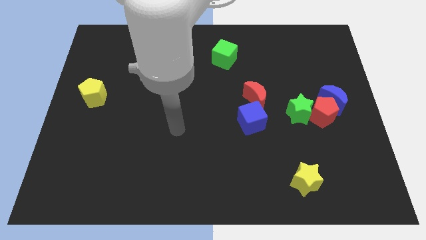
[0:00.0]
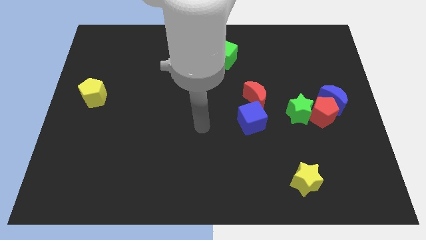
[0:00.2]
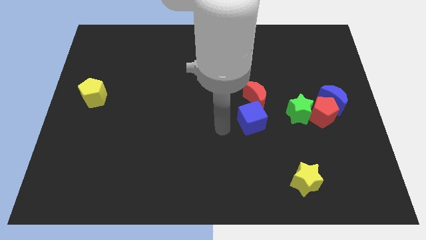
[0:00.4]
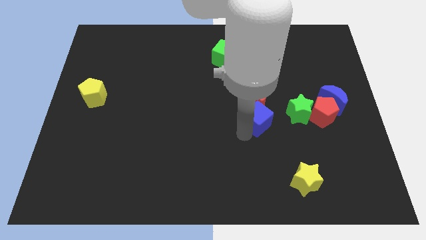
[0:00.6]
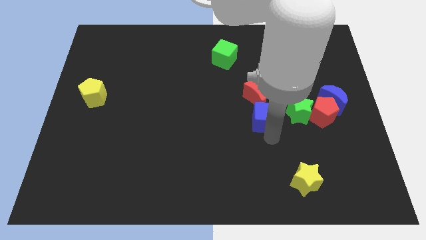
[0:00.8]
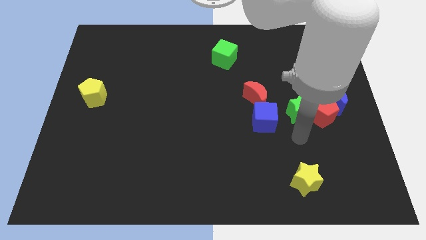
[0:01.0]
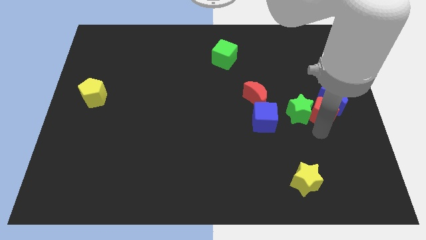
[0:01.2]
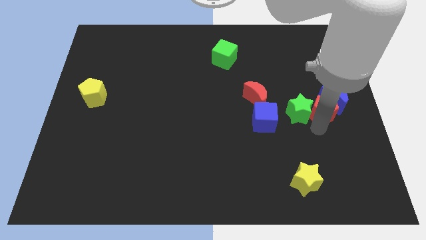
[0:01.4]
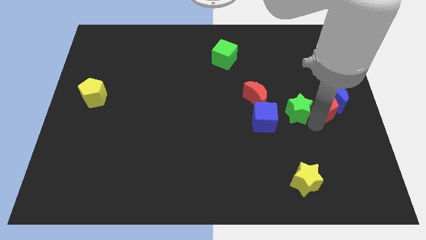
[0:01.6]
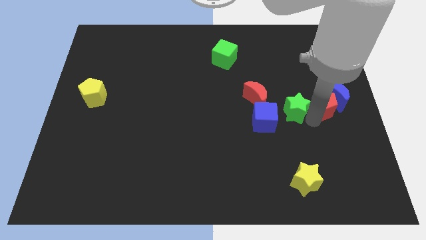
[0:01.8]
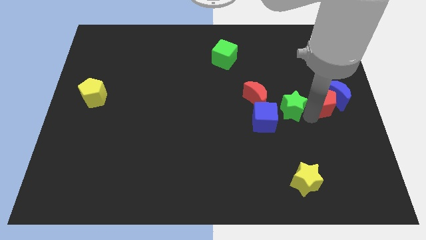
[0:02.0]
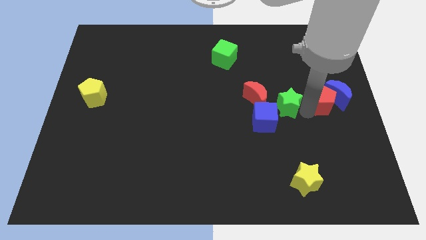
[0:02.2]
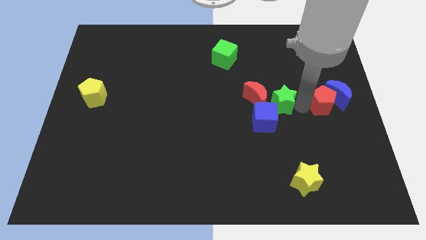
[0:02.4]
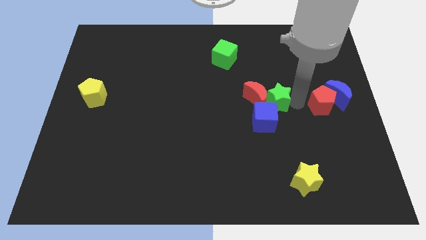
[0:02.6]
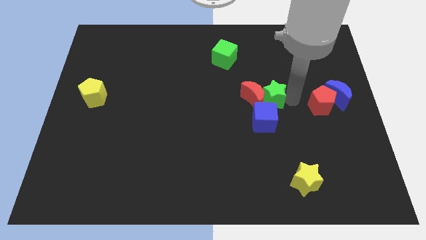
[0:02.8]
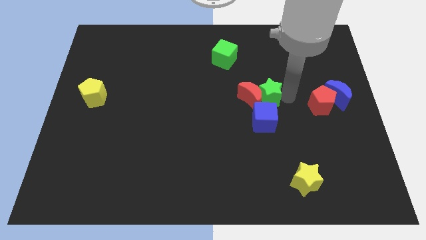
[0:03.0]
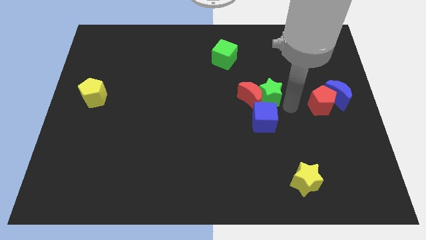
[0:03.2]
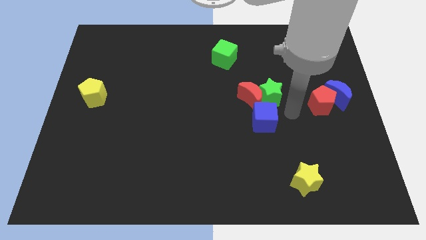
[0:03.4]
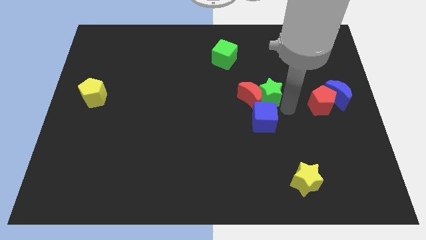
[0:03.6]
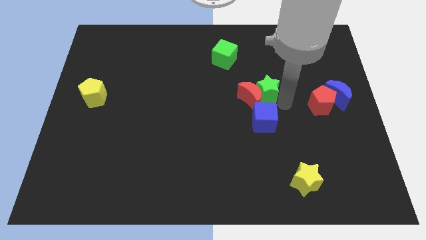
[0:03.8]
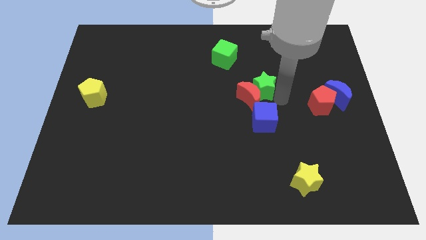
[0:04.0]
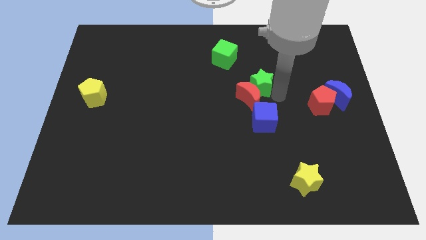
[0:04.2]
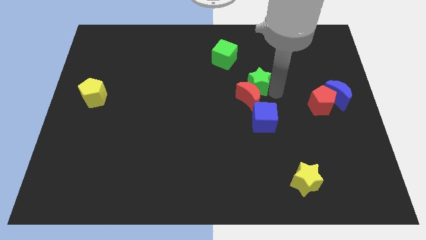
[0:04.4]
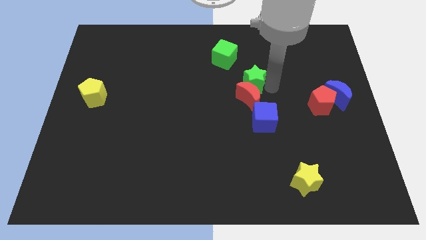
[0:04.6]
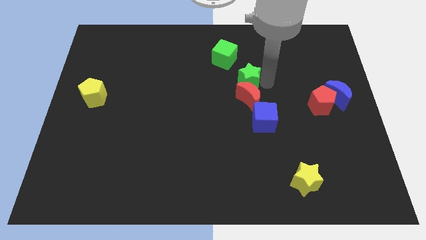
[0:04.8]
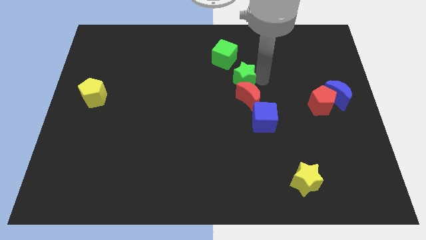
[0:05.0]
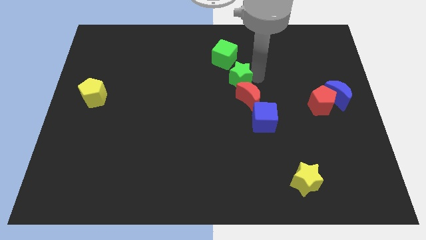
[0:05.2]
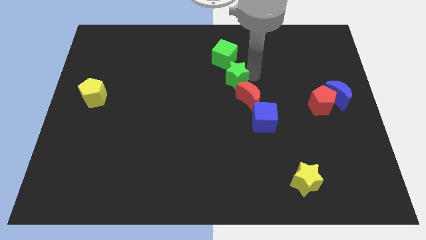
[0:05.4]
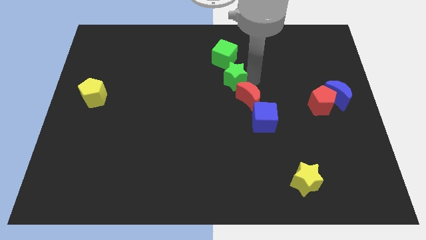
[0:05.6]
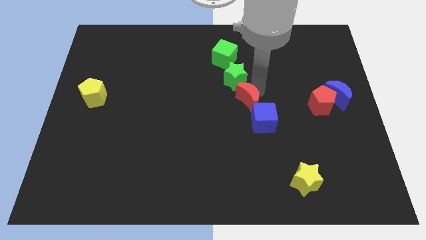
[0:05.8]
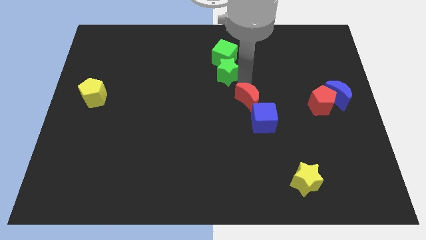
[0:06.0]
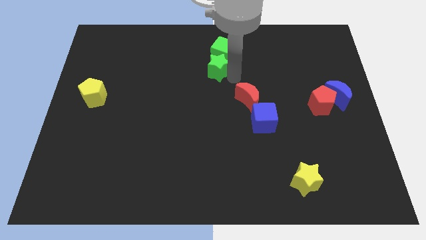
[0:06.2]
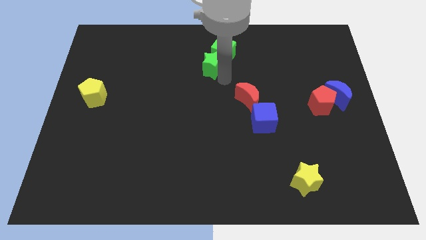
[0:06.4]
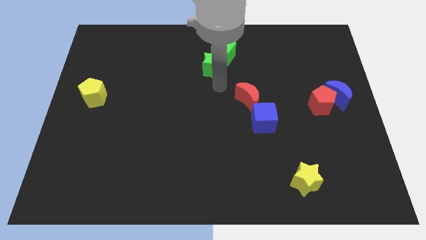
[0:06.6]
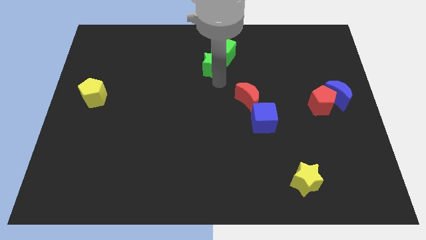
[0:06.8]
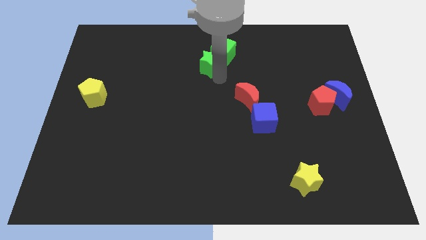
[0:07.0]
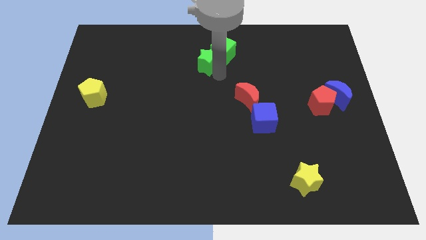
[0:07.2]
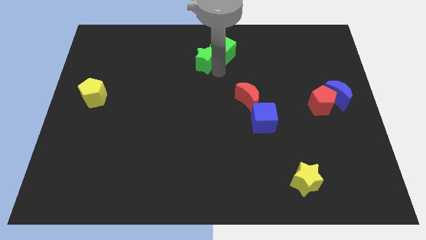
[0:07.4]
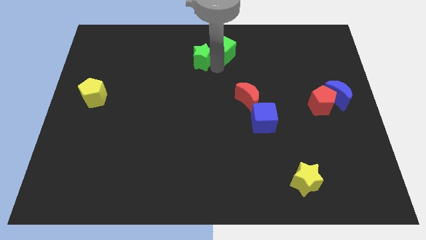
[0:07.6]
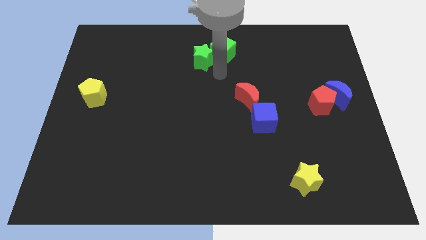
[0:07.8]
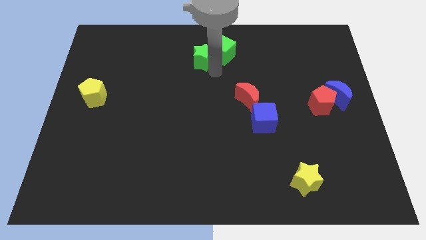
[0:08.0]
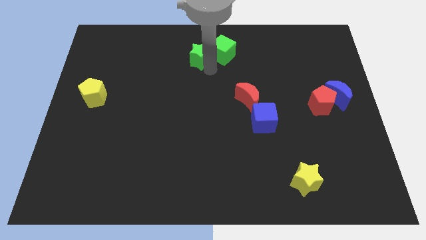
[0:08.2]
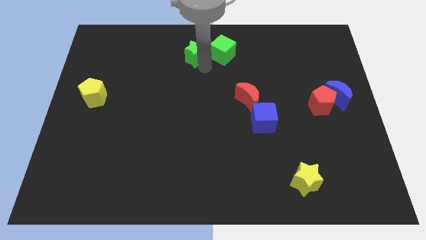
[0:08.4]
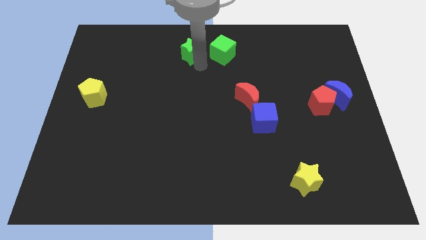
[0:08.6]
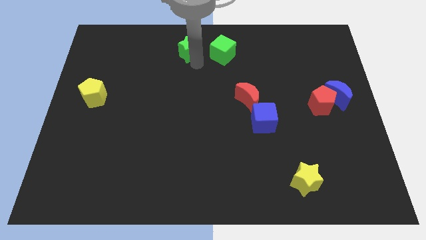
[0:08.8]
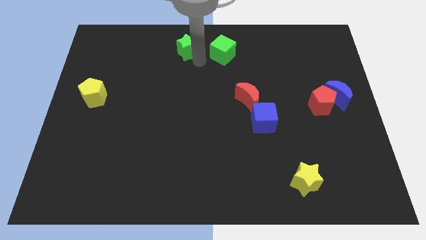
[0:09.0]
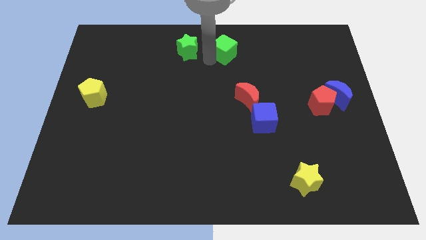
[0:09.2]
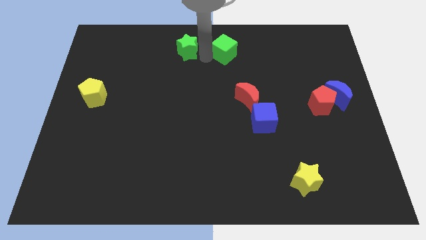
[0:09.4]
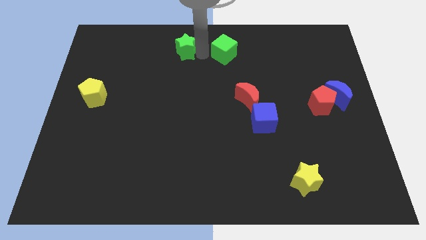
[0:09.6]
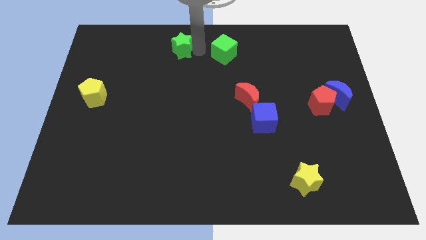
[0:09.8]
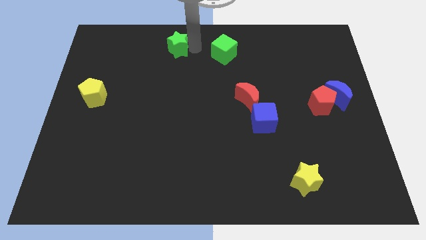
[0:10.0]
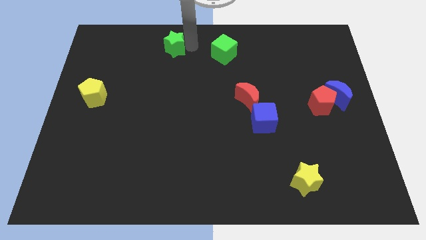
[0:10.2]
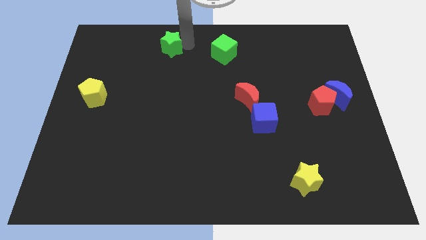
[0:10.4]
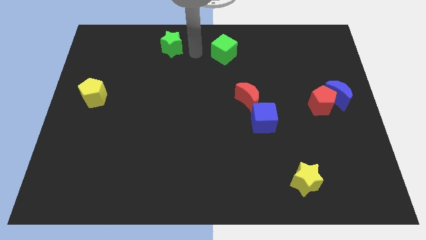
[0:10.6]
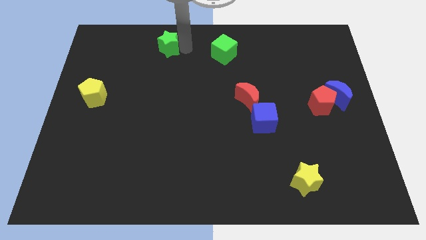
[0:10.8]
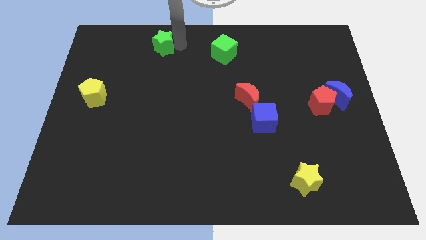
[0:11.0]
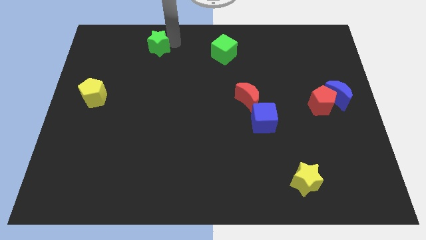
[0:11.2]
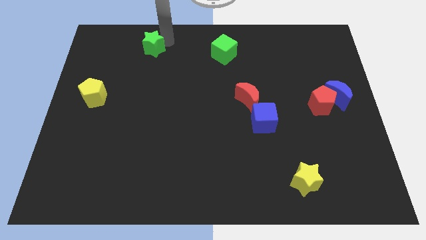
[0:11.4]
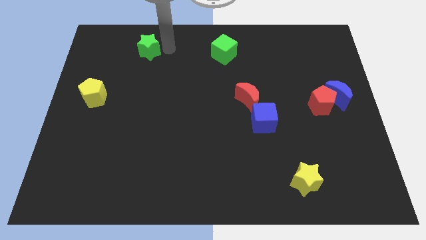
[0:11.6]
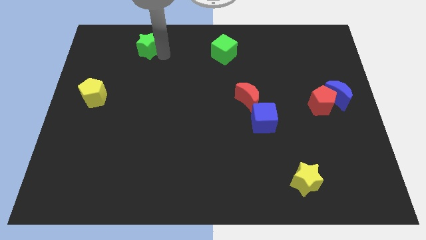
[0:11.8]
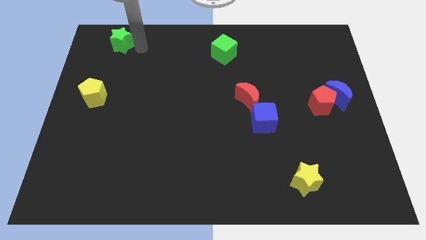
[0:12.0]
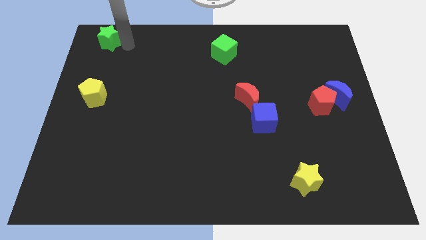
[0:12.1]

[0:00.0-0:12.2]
move the green star to the top left corner
